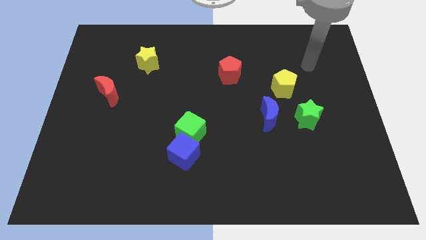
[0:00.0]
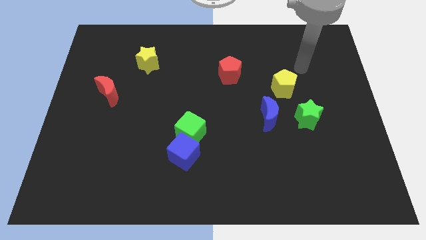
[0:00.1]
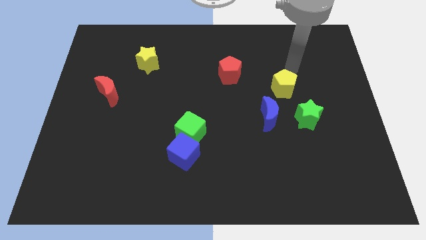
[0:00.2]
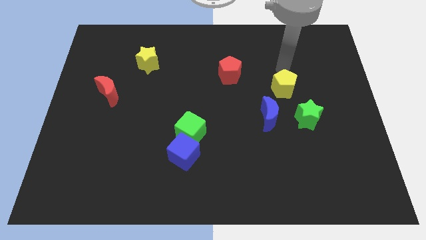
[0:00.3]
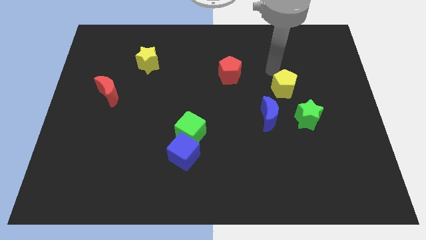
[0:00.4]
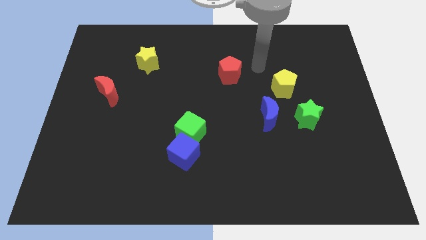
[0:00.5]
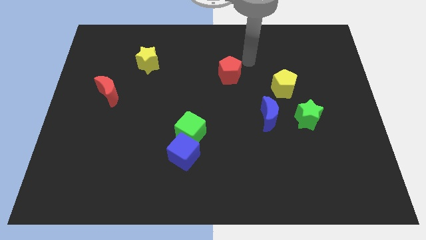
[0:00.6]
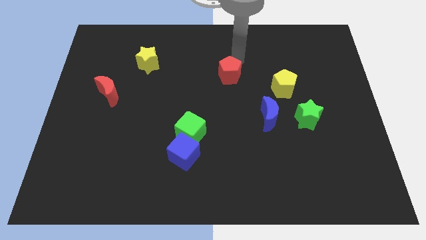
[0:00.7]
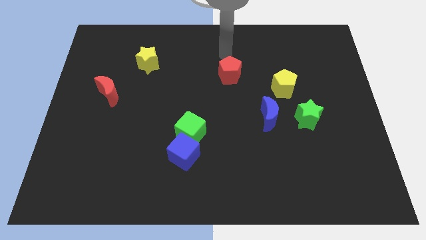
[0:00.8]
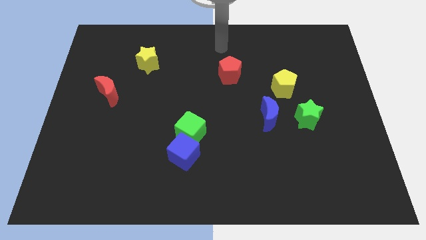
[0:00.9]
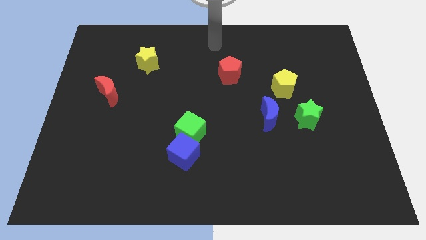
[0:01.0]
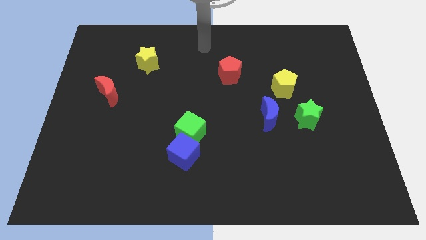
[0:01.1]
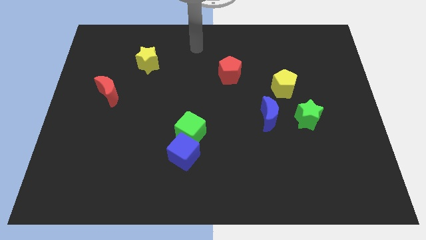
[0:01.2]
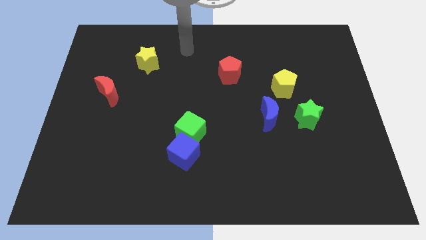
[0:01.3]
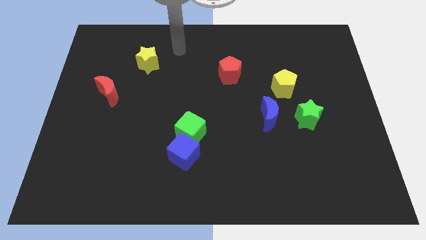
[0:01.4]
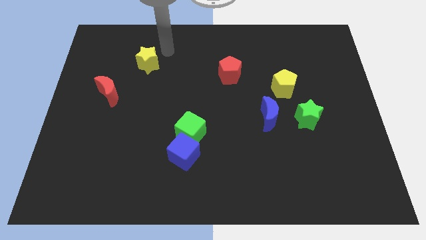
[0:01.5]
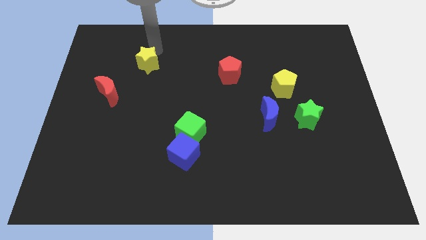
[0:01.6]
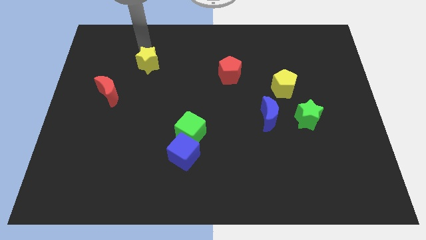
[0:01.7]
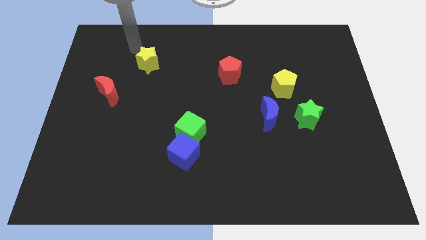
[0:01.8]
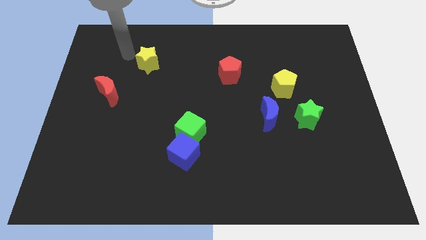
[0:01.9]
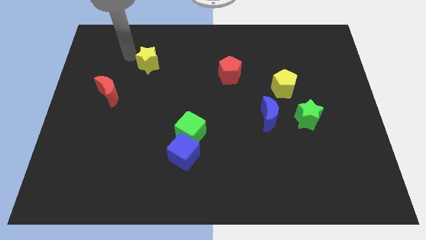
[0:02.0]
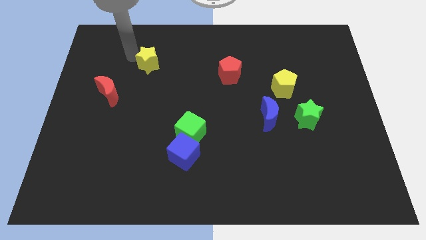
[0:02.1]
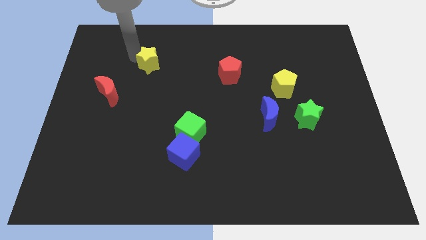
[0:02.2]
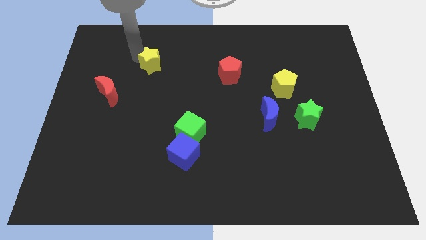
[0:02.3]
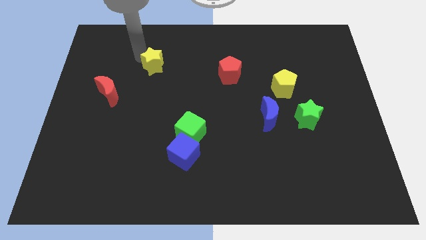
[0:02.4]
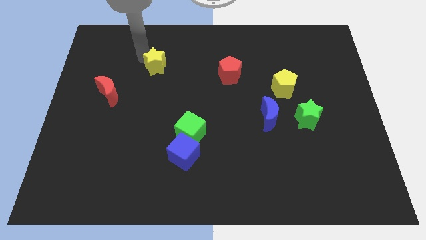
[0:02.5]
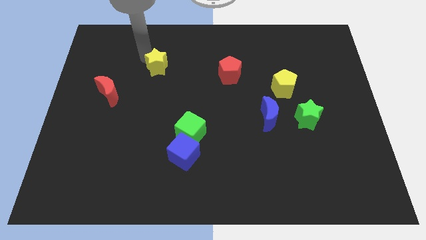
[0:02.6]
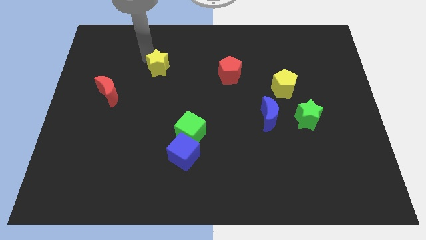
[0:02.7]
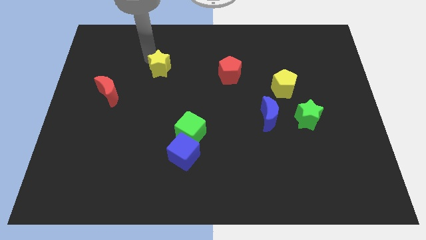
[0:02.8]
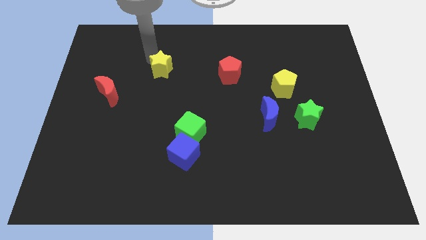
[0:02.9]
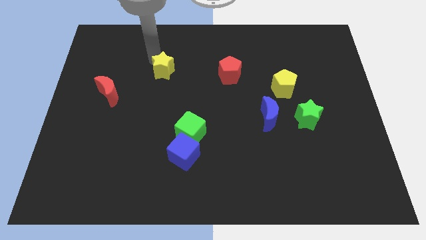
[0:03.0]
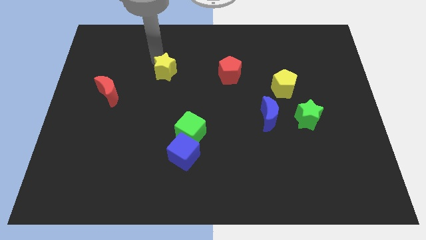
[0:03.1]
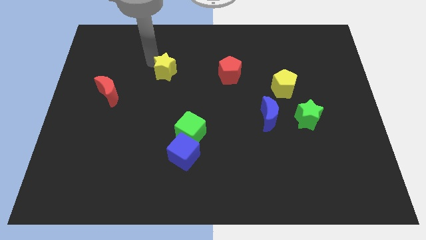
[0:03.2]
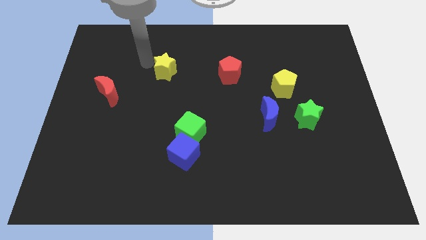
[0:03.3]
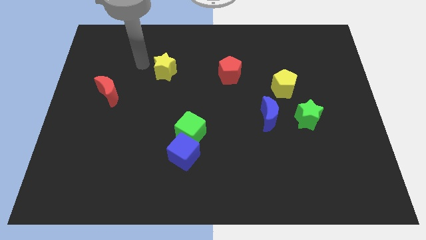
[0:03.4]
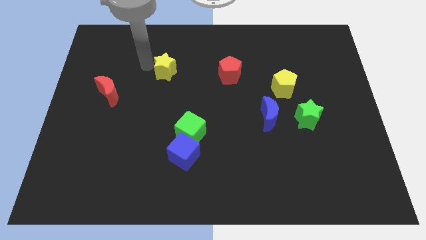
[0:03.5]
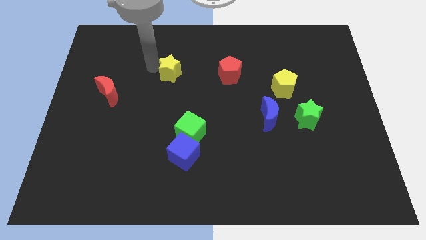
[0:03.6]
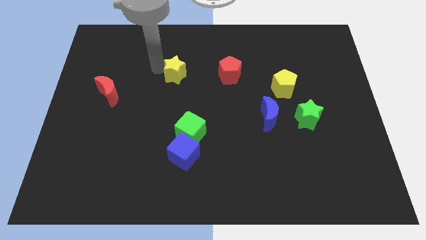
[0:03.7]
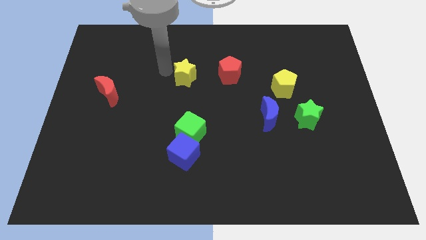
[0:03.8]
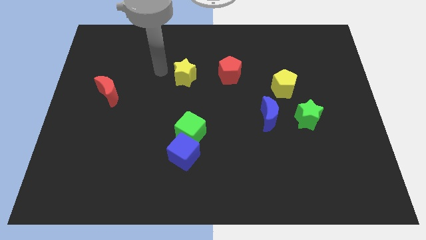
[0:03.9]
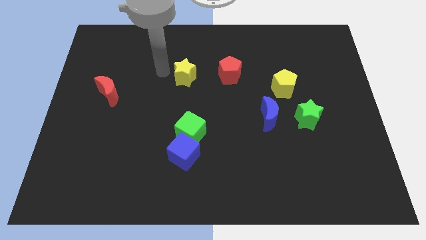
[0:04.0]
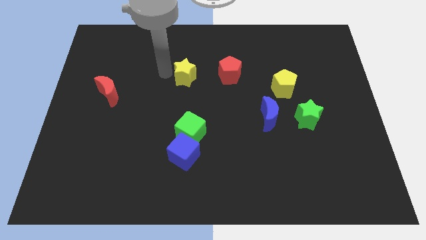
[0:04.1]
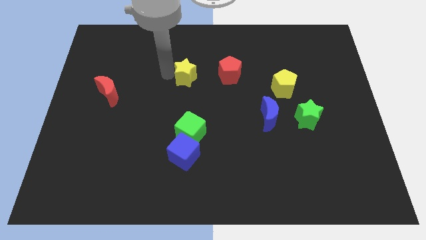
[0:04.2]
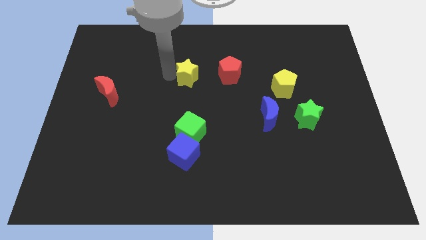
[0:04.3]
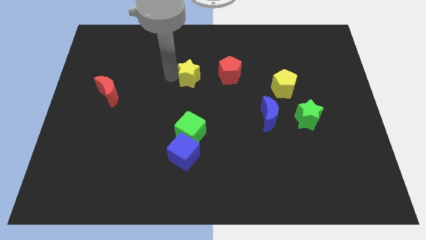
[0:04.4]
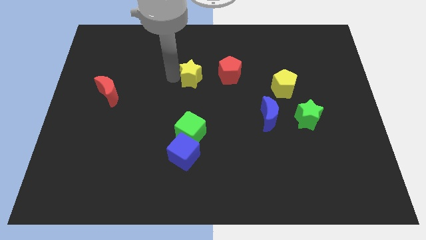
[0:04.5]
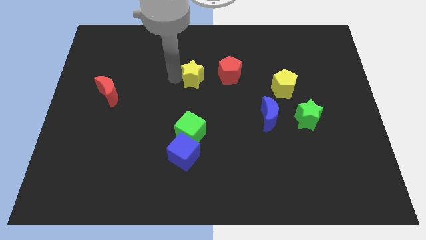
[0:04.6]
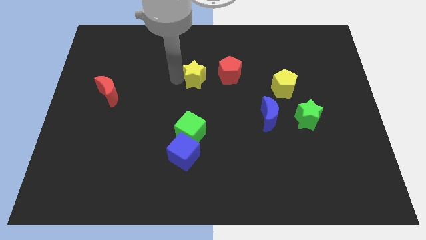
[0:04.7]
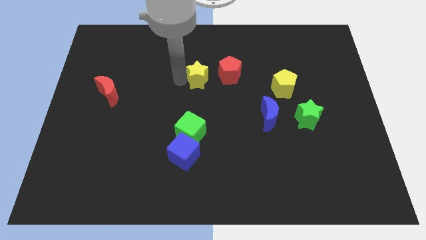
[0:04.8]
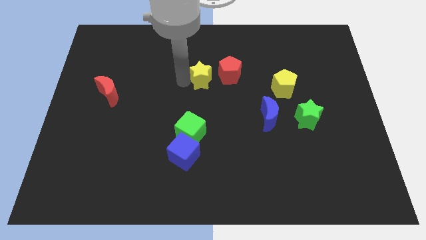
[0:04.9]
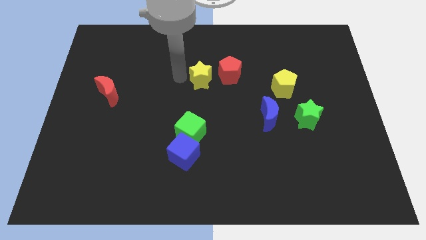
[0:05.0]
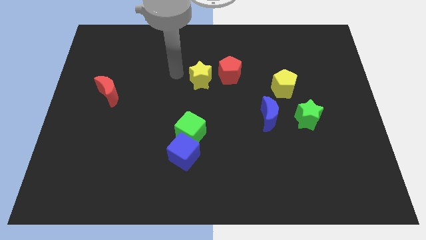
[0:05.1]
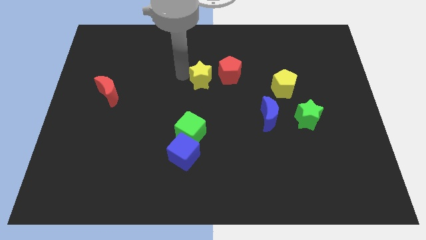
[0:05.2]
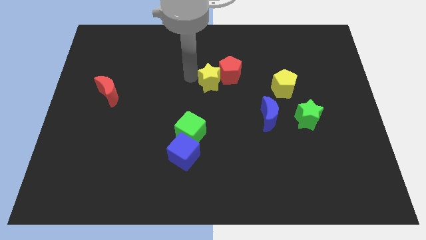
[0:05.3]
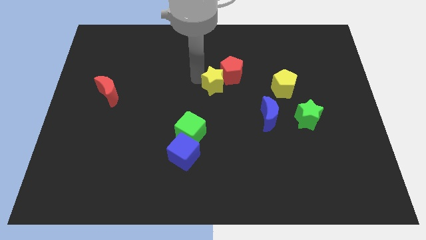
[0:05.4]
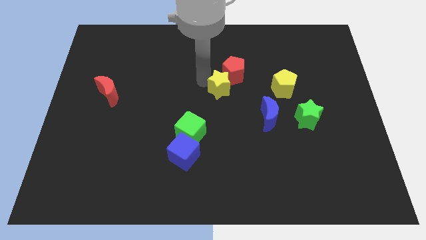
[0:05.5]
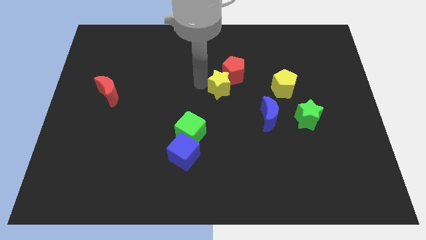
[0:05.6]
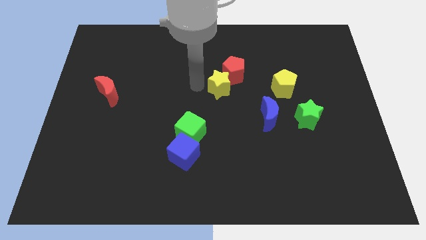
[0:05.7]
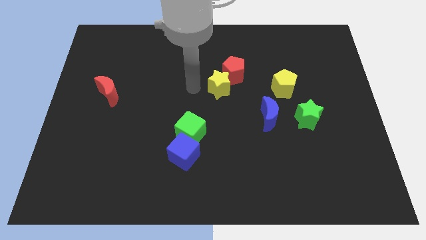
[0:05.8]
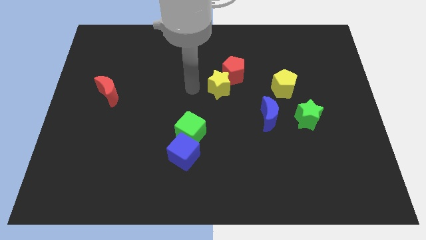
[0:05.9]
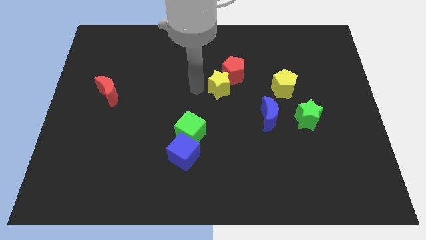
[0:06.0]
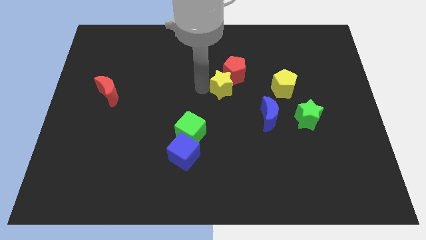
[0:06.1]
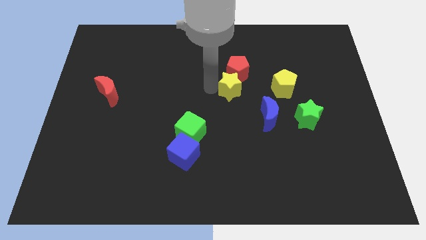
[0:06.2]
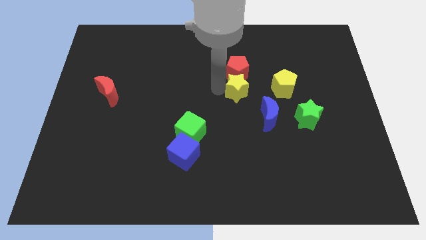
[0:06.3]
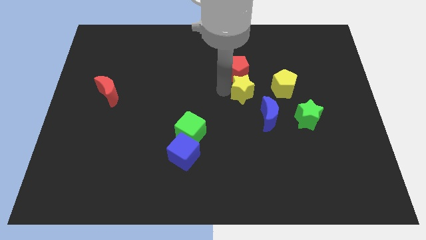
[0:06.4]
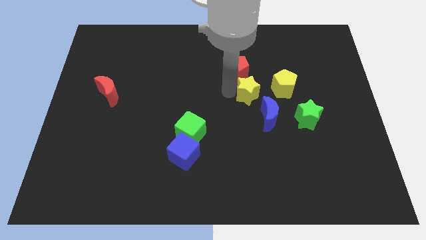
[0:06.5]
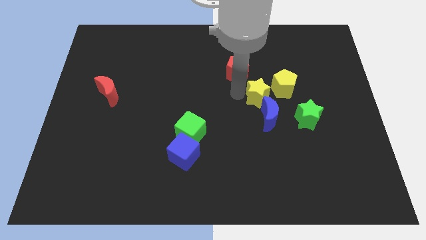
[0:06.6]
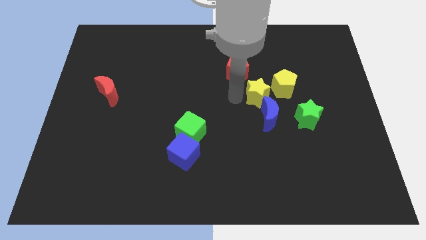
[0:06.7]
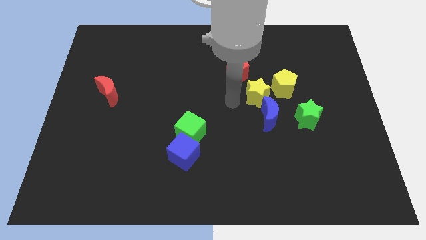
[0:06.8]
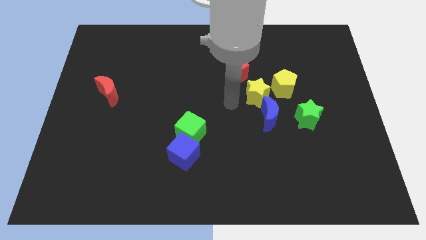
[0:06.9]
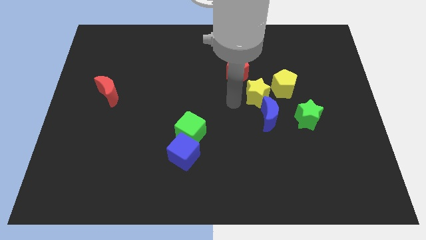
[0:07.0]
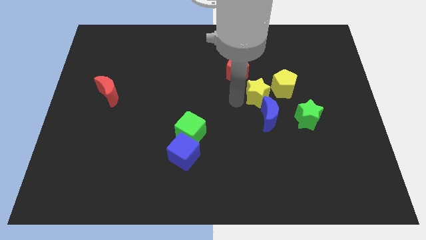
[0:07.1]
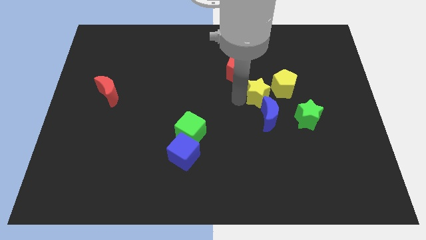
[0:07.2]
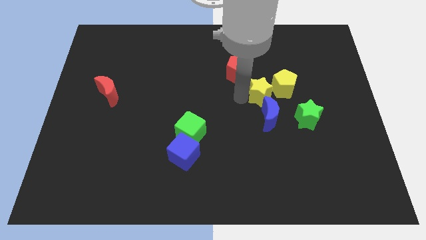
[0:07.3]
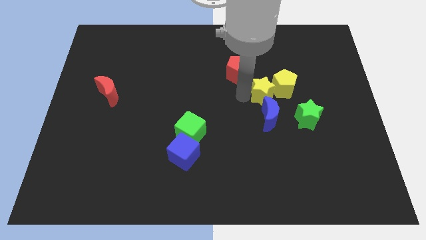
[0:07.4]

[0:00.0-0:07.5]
push the yellow star to the yellow pentagon
